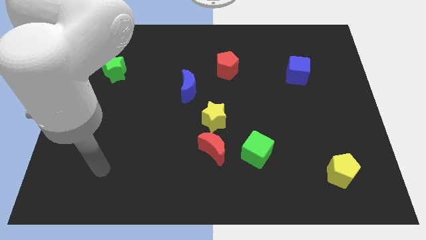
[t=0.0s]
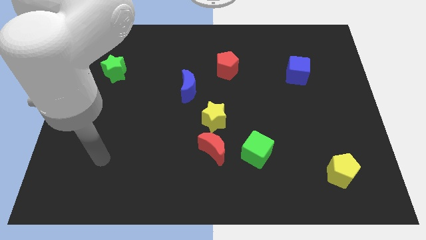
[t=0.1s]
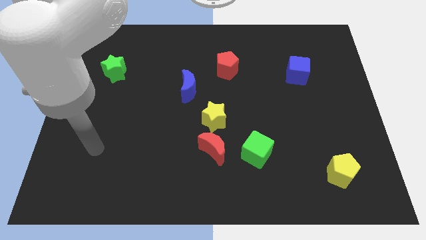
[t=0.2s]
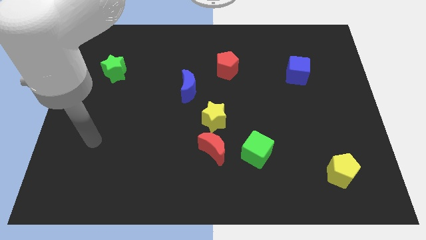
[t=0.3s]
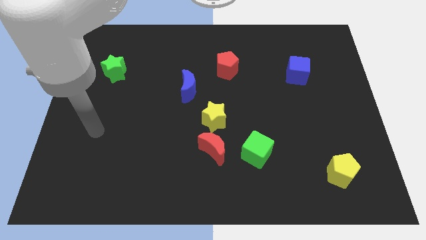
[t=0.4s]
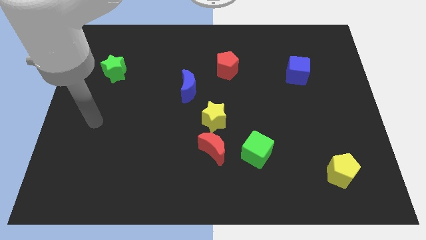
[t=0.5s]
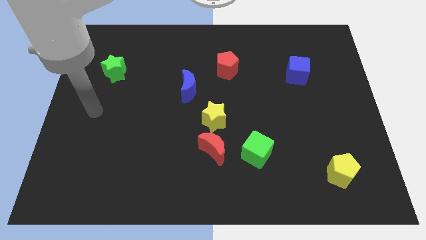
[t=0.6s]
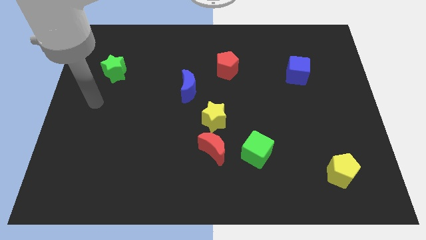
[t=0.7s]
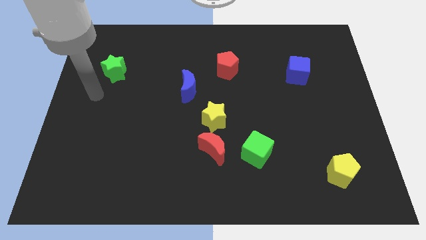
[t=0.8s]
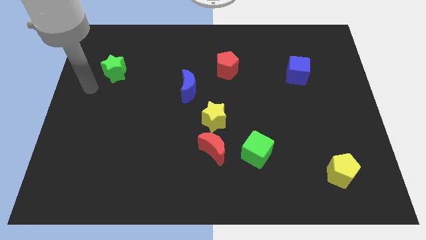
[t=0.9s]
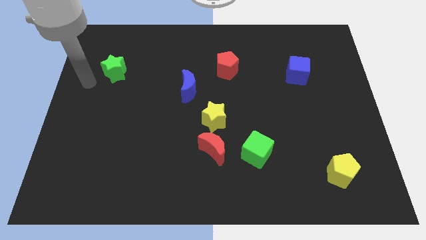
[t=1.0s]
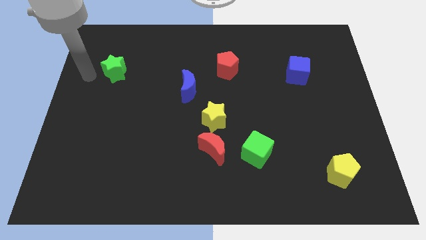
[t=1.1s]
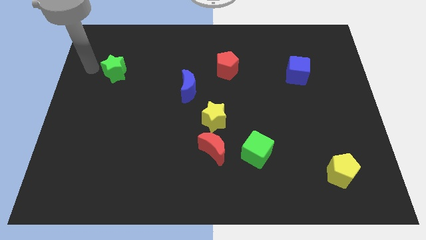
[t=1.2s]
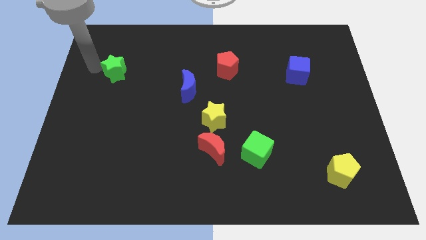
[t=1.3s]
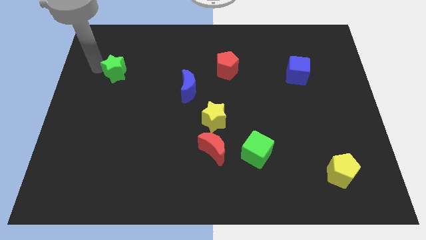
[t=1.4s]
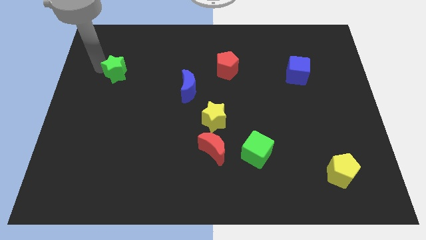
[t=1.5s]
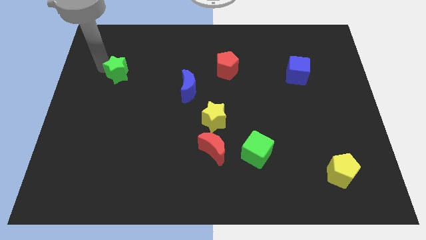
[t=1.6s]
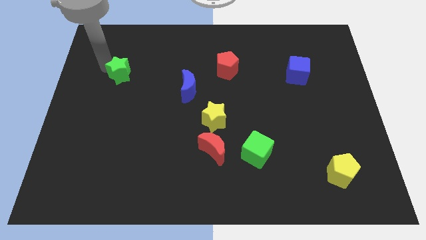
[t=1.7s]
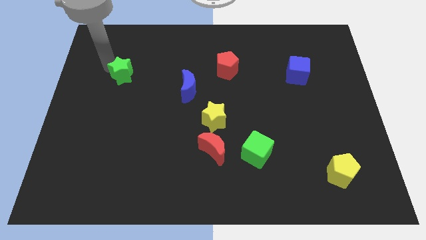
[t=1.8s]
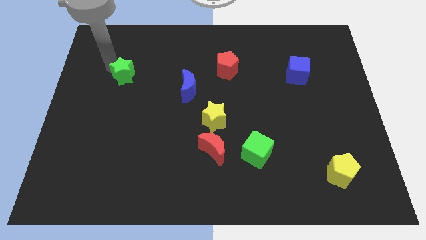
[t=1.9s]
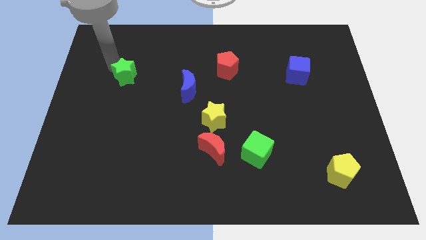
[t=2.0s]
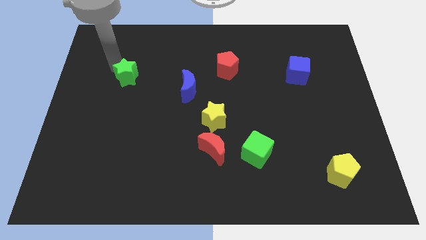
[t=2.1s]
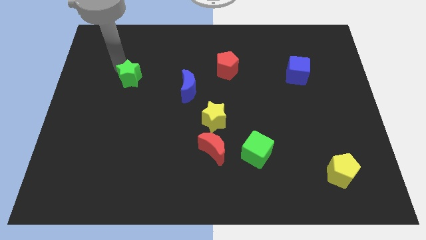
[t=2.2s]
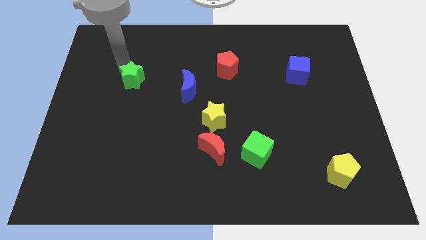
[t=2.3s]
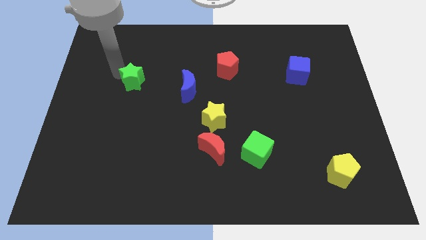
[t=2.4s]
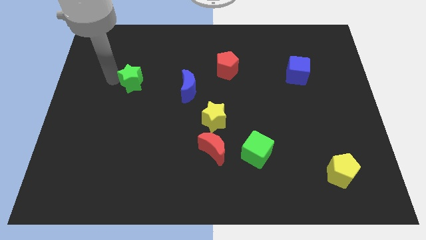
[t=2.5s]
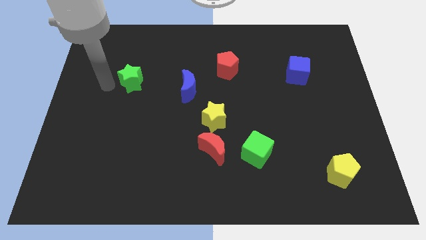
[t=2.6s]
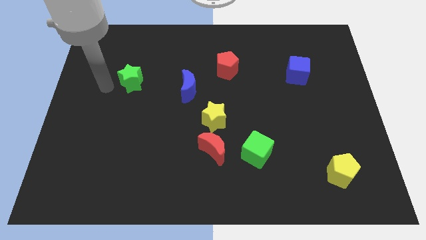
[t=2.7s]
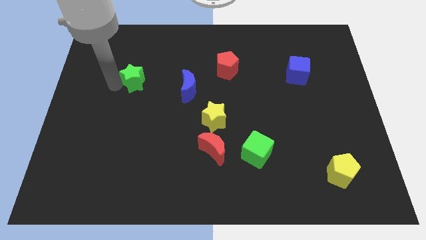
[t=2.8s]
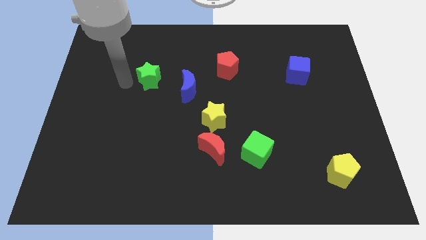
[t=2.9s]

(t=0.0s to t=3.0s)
slightly move the green star to the right

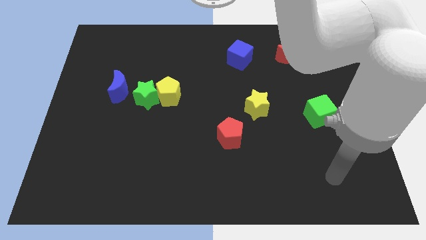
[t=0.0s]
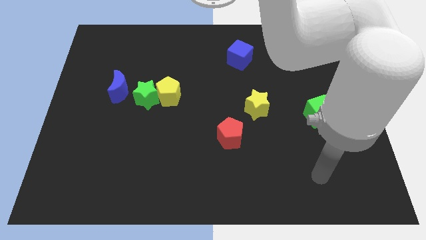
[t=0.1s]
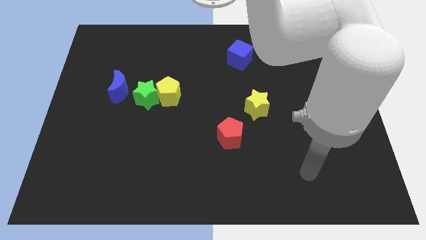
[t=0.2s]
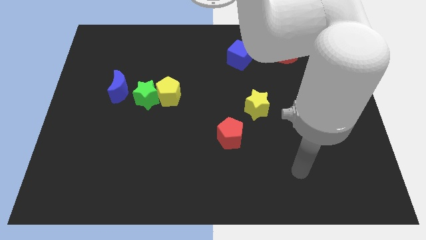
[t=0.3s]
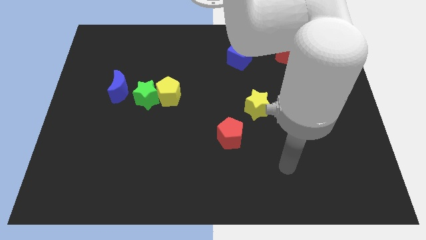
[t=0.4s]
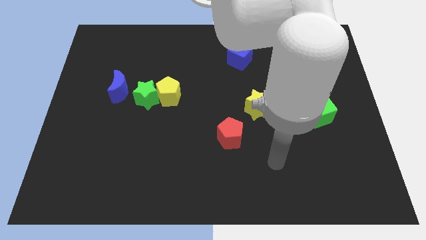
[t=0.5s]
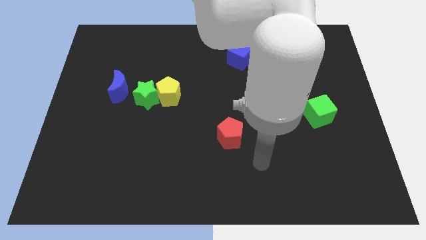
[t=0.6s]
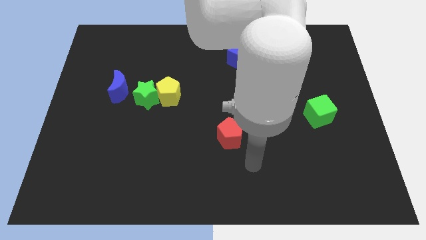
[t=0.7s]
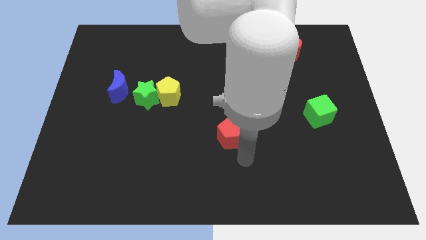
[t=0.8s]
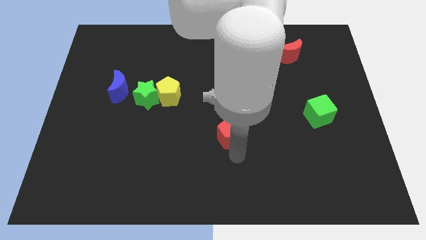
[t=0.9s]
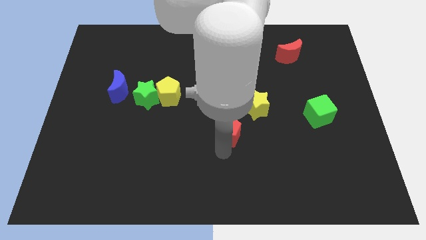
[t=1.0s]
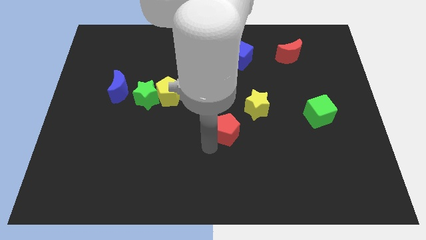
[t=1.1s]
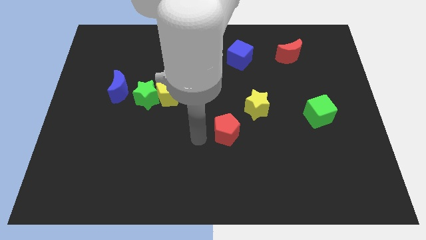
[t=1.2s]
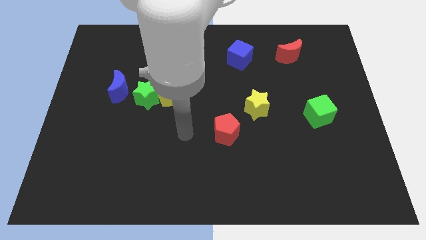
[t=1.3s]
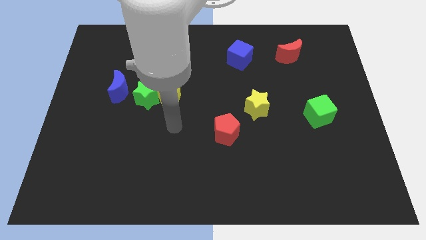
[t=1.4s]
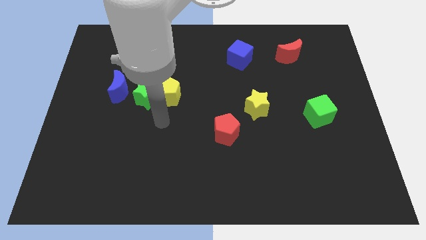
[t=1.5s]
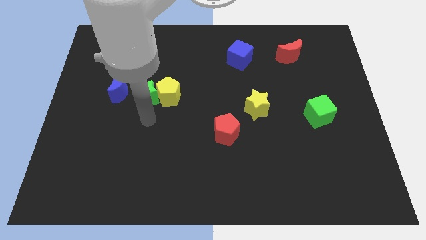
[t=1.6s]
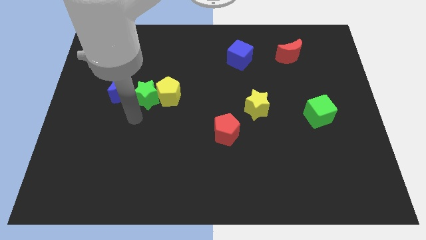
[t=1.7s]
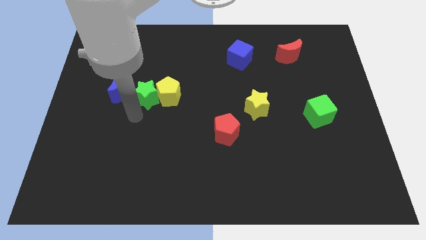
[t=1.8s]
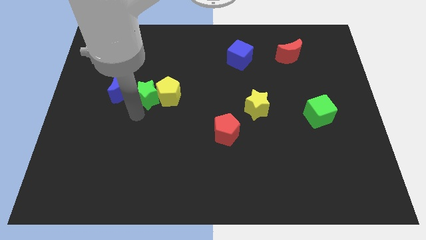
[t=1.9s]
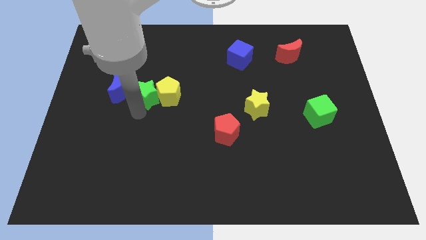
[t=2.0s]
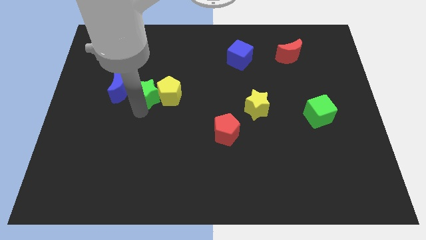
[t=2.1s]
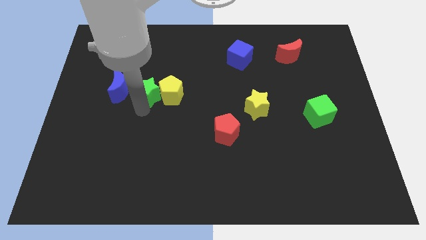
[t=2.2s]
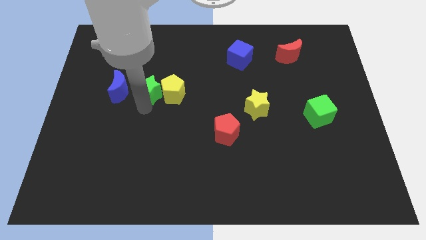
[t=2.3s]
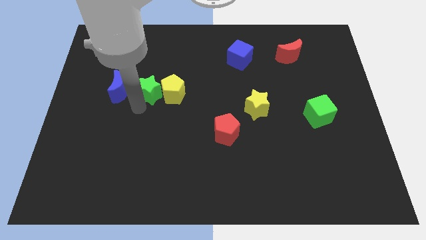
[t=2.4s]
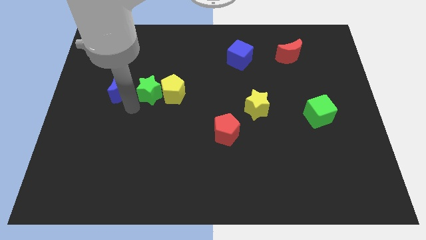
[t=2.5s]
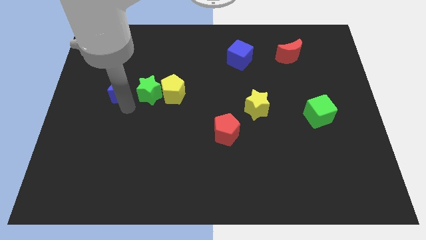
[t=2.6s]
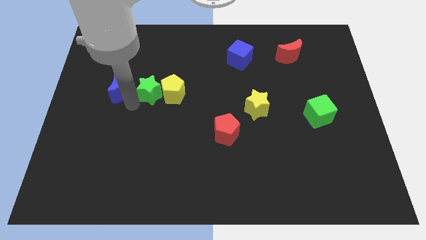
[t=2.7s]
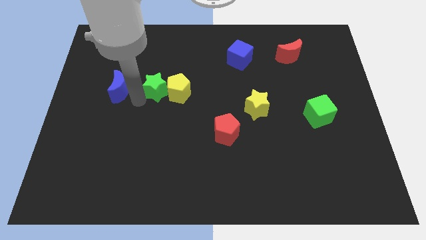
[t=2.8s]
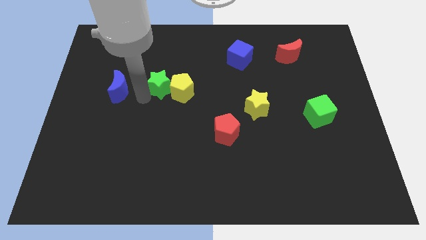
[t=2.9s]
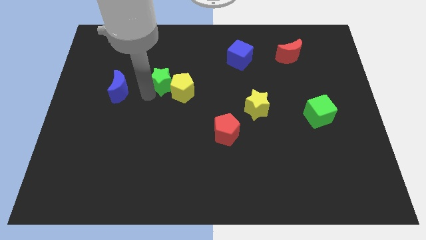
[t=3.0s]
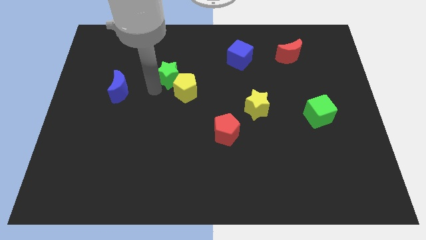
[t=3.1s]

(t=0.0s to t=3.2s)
slightly slide the green star upwards and right diagonally

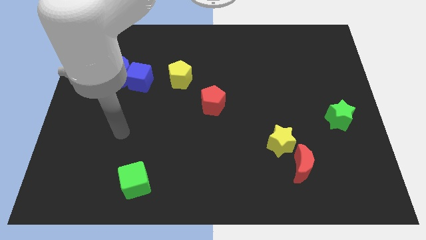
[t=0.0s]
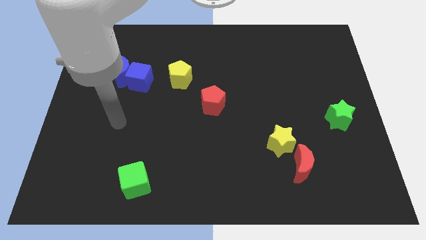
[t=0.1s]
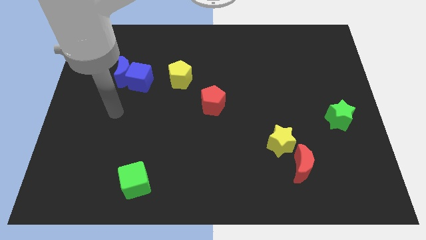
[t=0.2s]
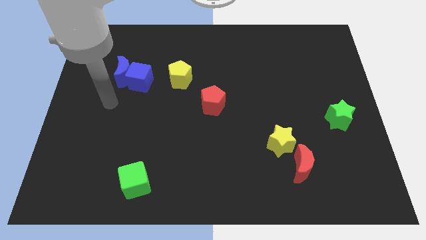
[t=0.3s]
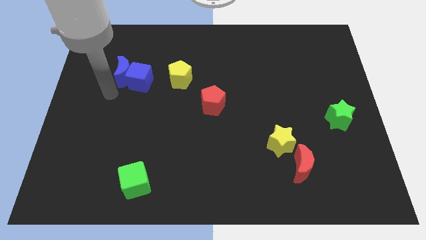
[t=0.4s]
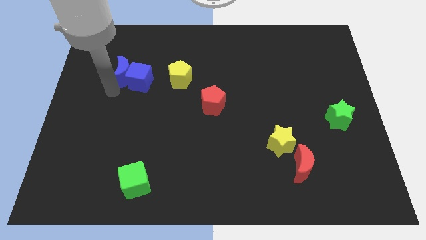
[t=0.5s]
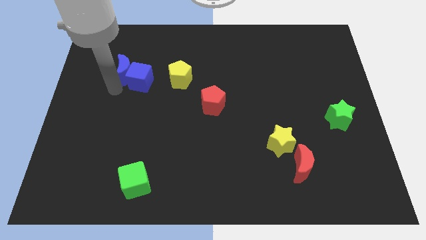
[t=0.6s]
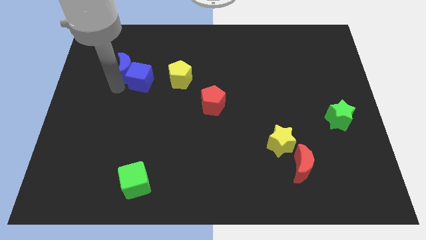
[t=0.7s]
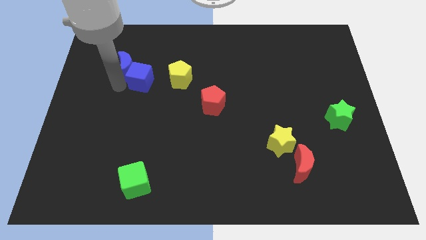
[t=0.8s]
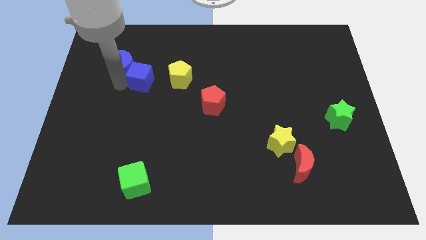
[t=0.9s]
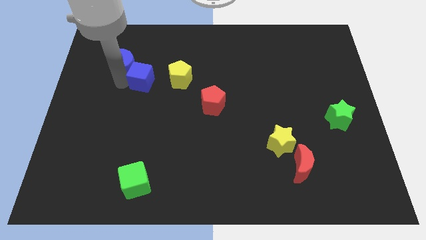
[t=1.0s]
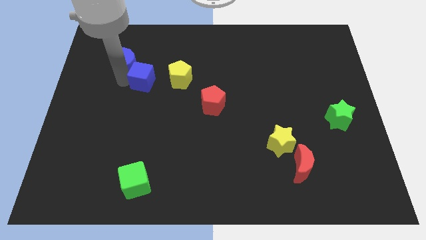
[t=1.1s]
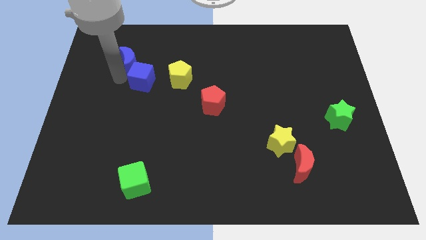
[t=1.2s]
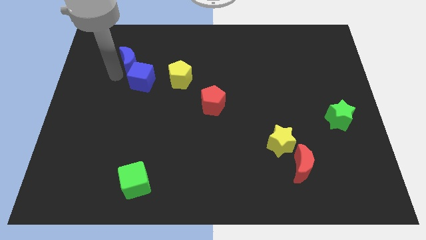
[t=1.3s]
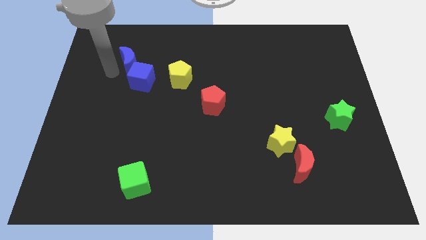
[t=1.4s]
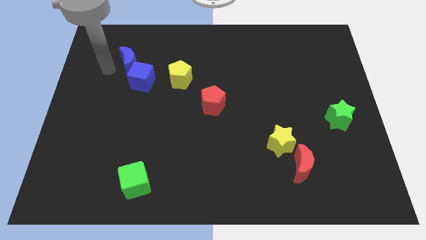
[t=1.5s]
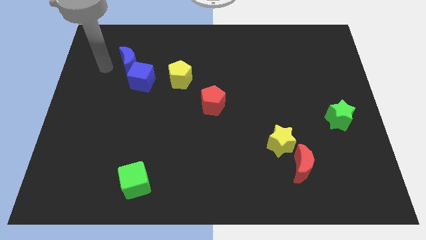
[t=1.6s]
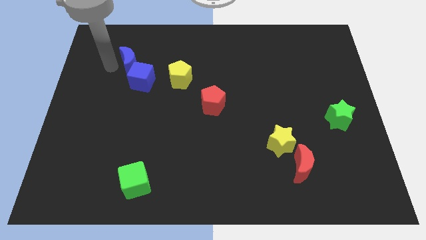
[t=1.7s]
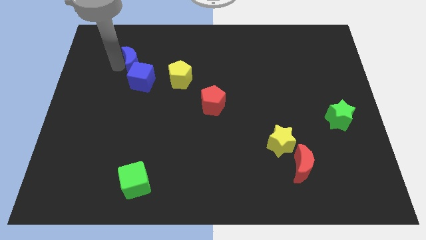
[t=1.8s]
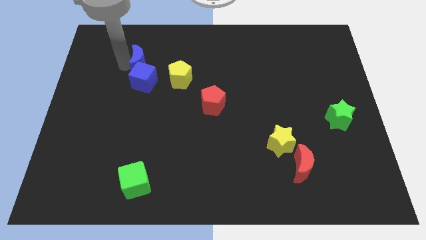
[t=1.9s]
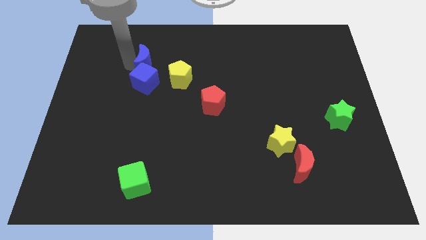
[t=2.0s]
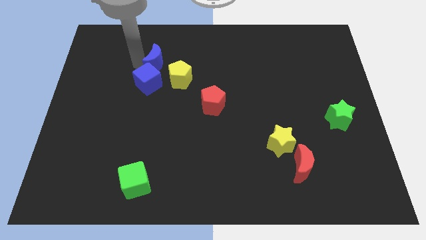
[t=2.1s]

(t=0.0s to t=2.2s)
slightly move the blue moon right
